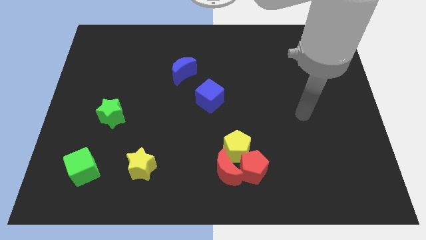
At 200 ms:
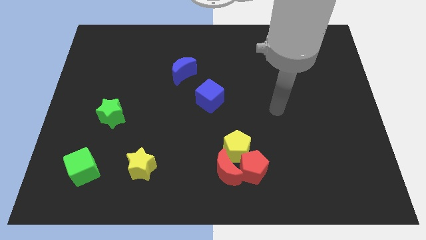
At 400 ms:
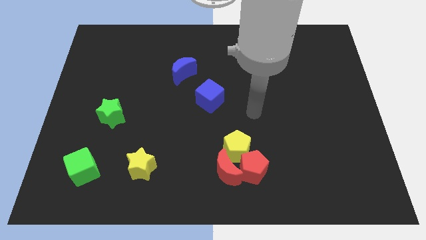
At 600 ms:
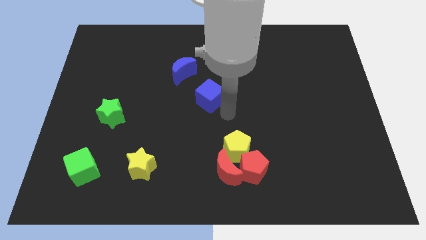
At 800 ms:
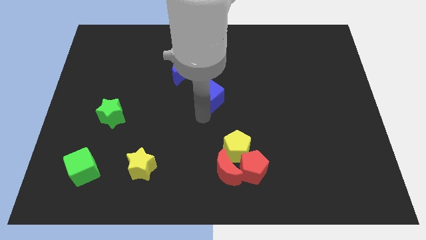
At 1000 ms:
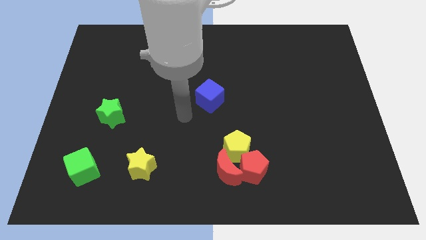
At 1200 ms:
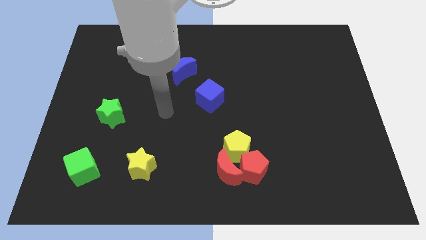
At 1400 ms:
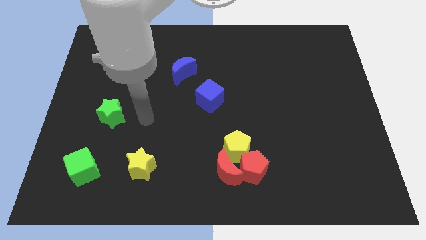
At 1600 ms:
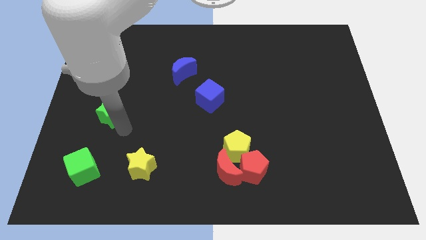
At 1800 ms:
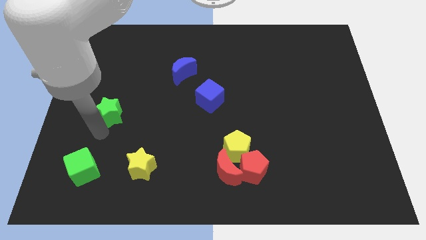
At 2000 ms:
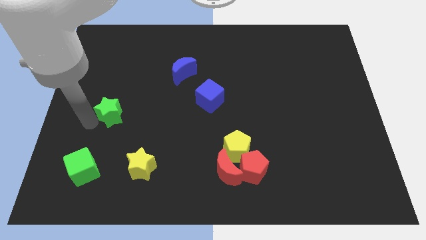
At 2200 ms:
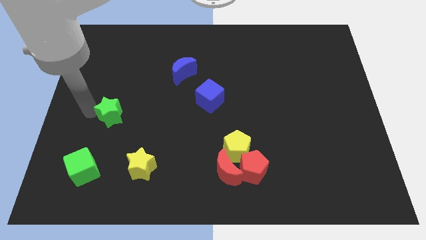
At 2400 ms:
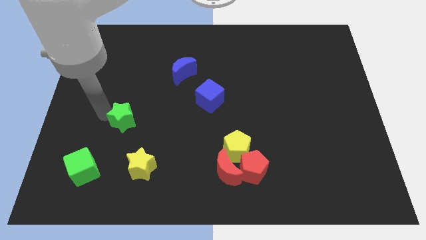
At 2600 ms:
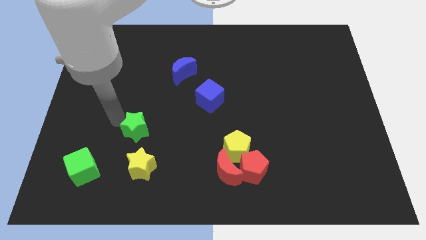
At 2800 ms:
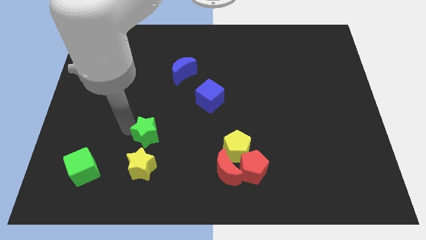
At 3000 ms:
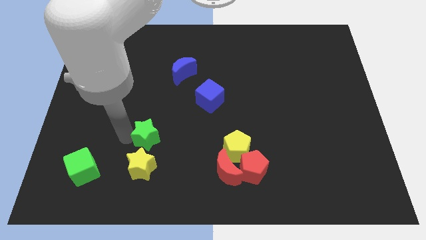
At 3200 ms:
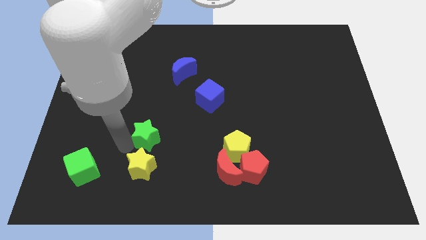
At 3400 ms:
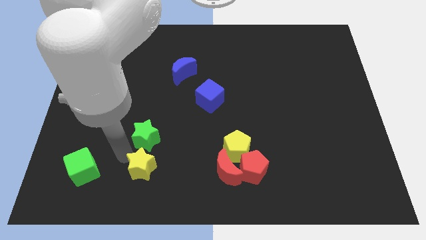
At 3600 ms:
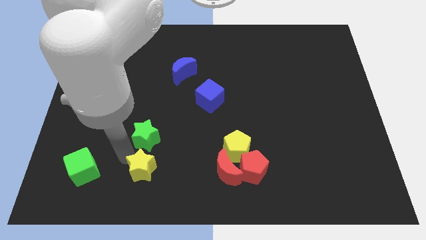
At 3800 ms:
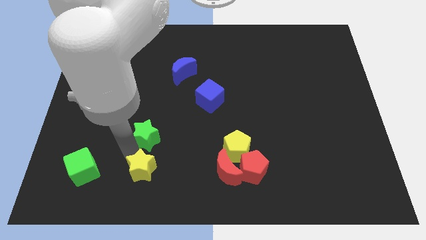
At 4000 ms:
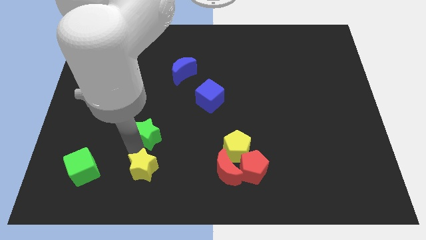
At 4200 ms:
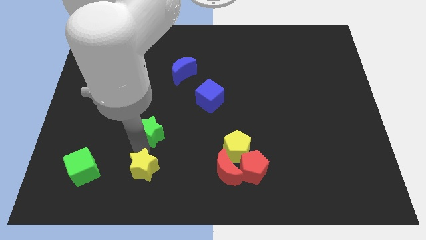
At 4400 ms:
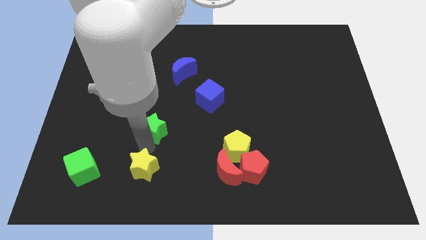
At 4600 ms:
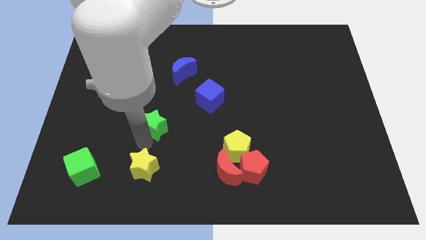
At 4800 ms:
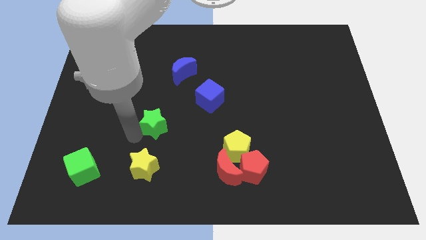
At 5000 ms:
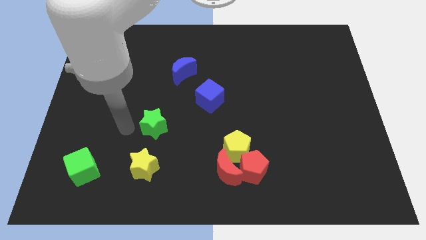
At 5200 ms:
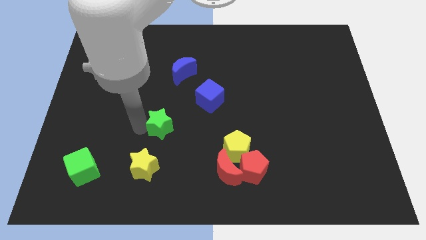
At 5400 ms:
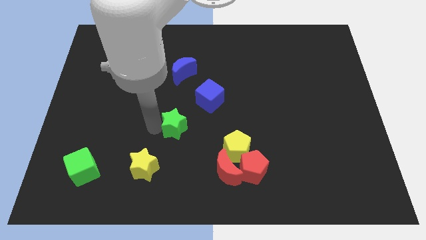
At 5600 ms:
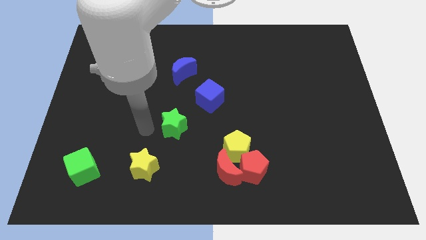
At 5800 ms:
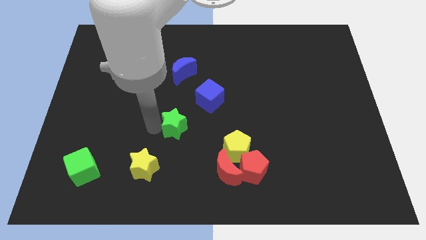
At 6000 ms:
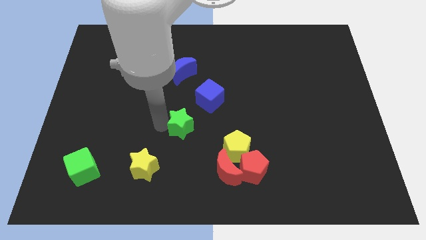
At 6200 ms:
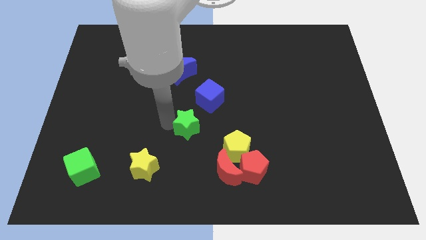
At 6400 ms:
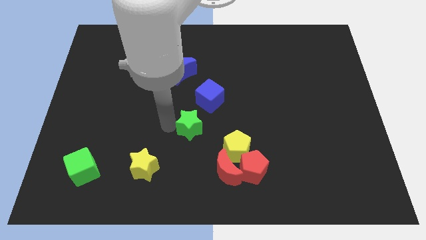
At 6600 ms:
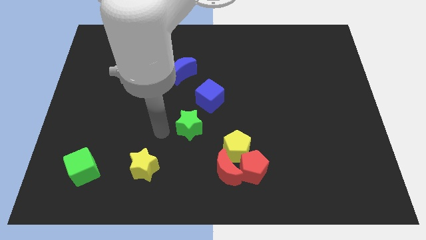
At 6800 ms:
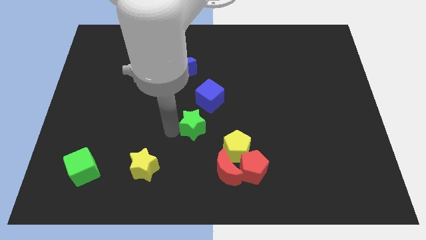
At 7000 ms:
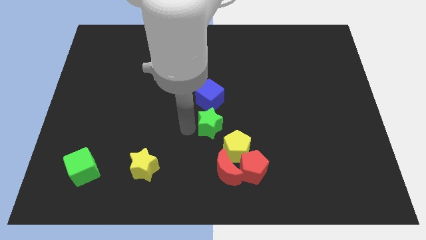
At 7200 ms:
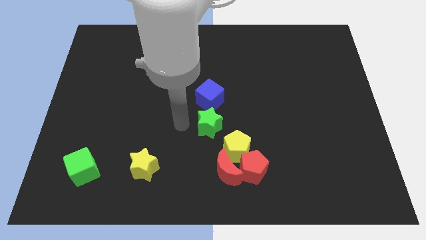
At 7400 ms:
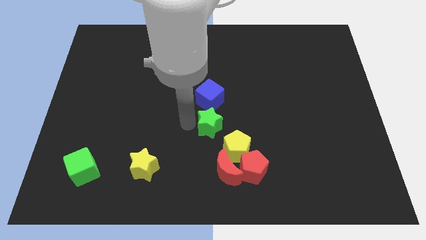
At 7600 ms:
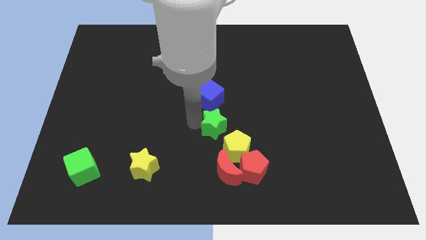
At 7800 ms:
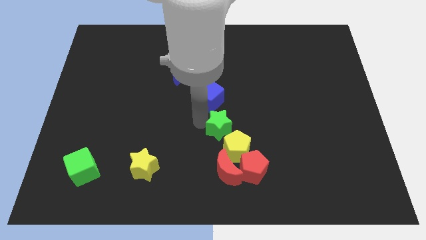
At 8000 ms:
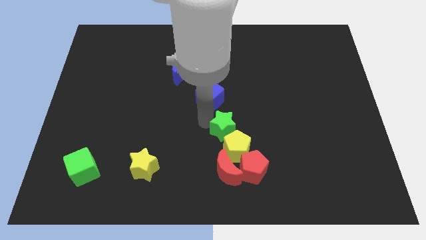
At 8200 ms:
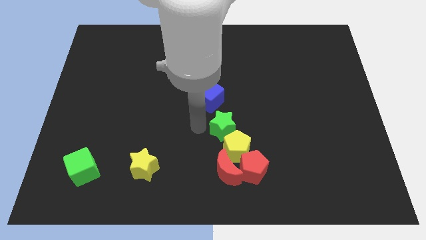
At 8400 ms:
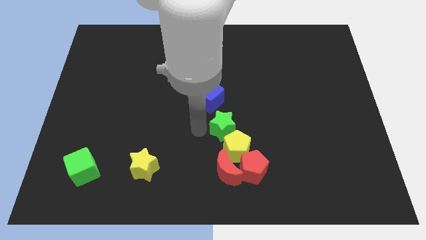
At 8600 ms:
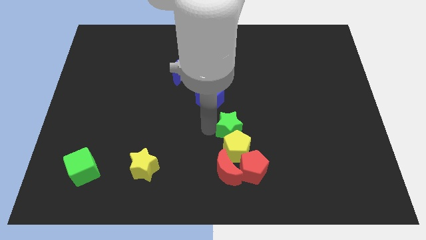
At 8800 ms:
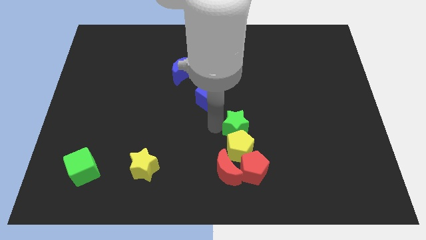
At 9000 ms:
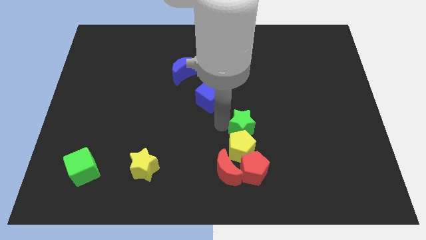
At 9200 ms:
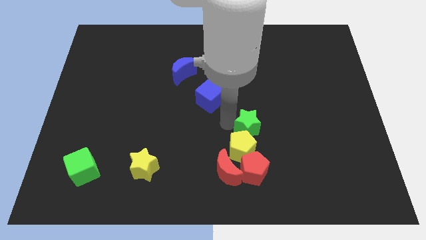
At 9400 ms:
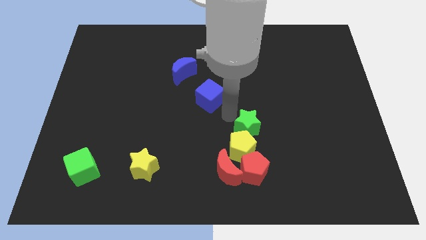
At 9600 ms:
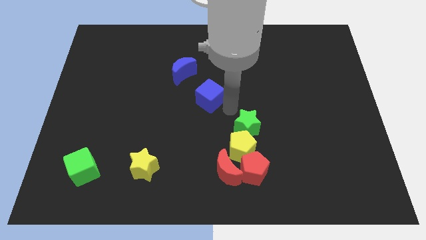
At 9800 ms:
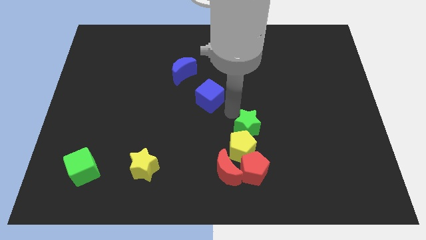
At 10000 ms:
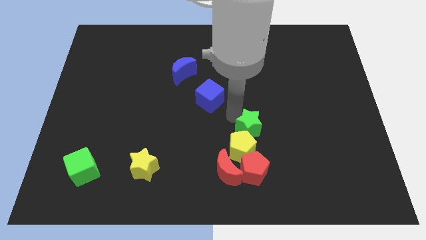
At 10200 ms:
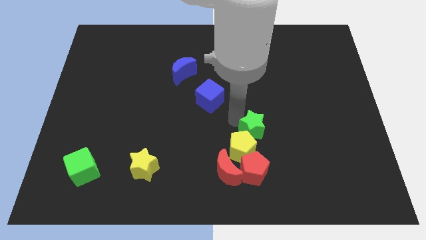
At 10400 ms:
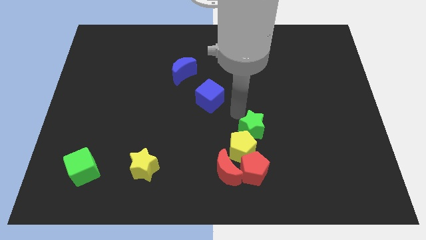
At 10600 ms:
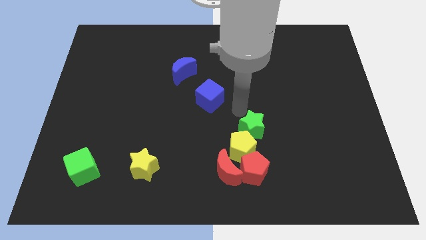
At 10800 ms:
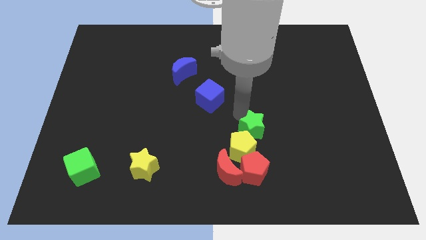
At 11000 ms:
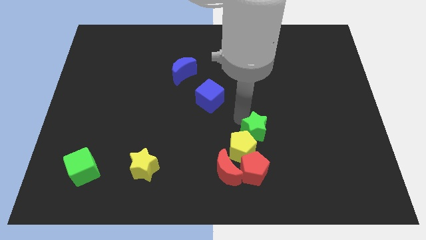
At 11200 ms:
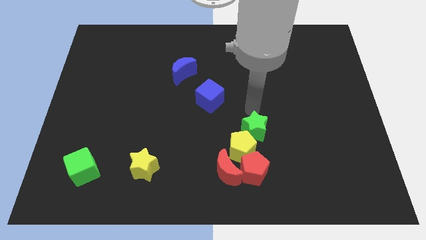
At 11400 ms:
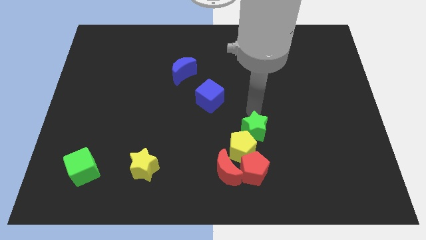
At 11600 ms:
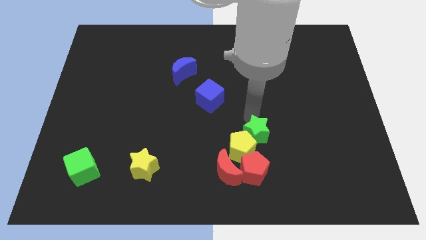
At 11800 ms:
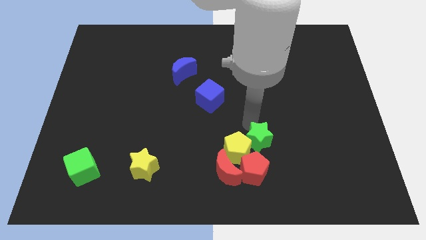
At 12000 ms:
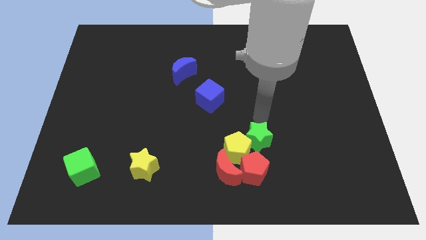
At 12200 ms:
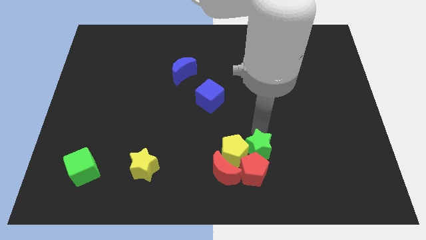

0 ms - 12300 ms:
push the green star close to the red pentagon
